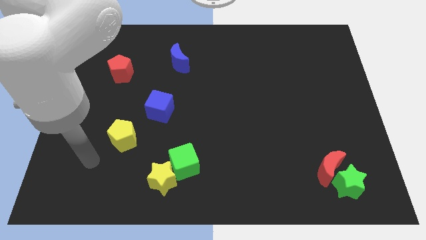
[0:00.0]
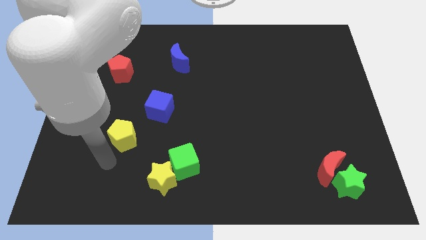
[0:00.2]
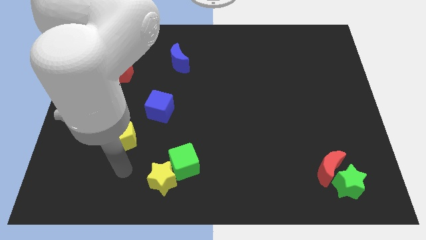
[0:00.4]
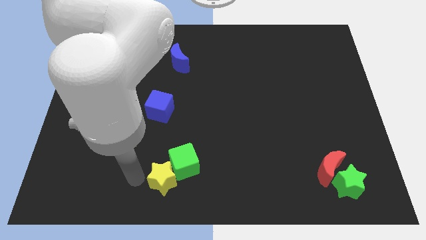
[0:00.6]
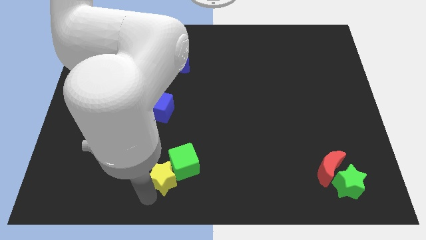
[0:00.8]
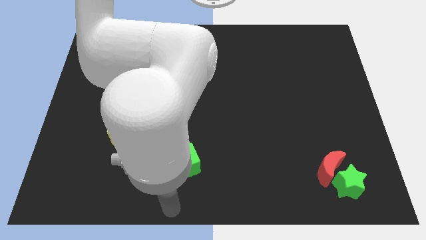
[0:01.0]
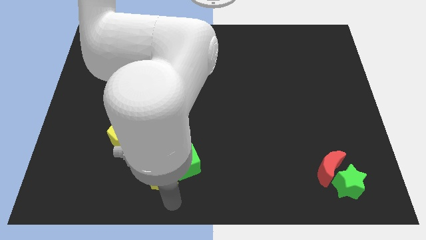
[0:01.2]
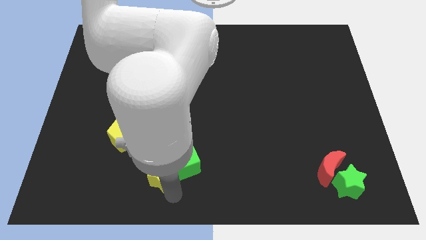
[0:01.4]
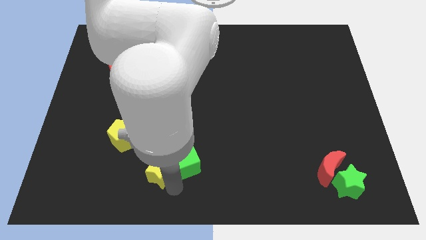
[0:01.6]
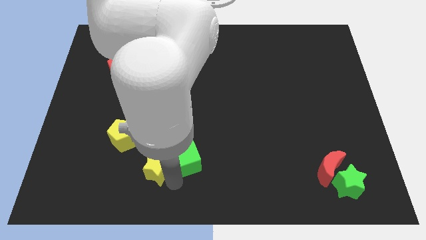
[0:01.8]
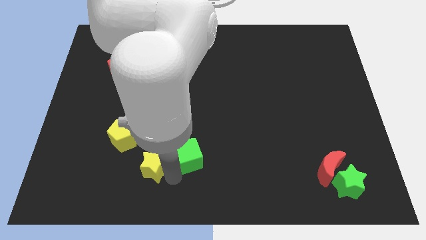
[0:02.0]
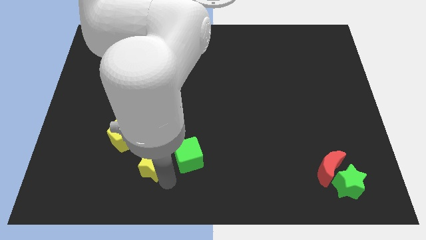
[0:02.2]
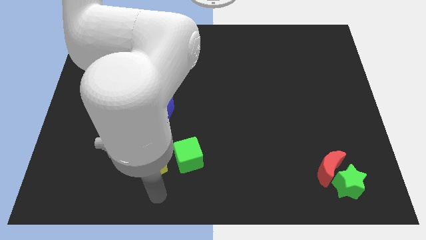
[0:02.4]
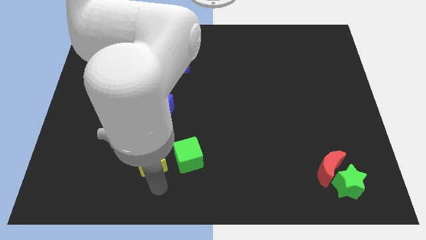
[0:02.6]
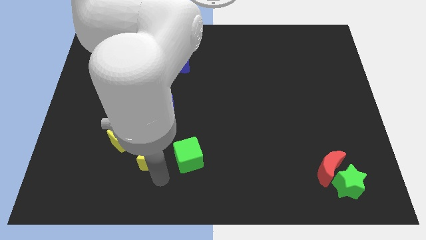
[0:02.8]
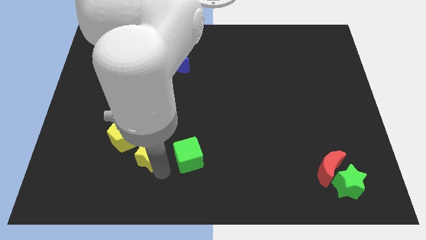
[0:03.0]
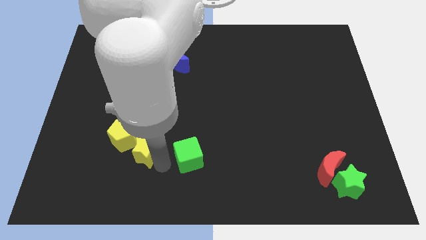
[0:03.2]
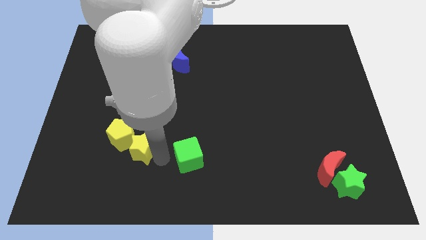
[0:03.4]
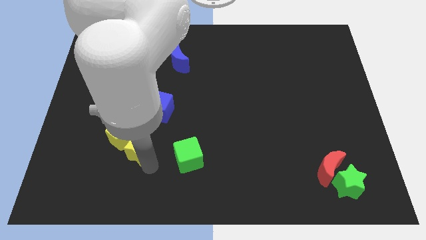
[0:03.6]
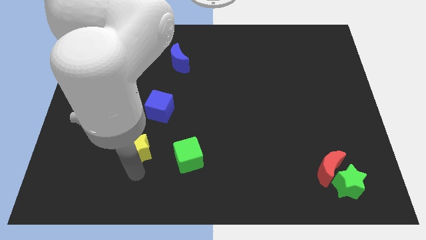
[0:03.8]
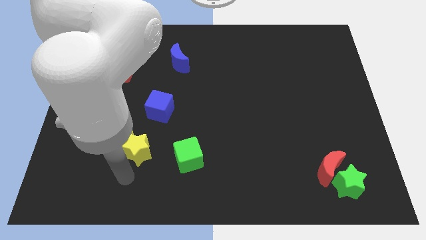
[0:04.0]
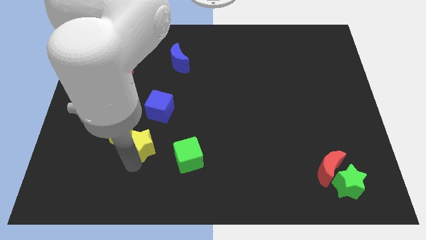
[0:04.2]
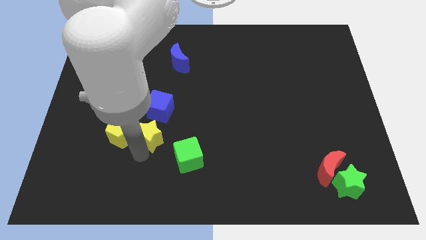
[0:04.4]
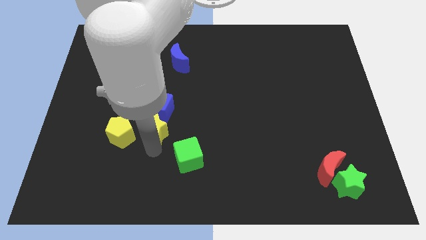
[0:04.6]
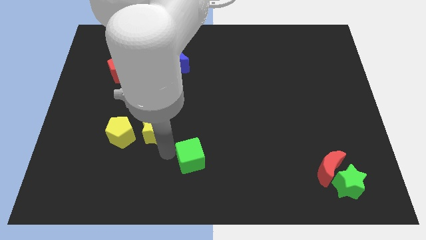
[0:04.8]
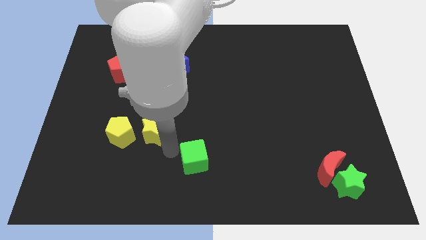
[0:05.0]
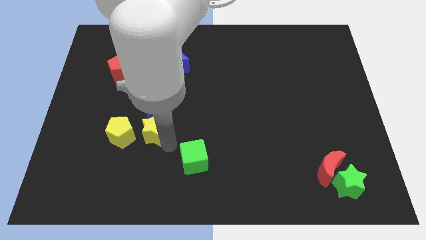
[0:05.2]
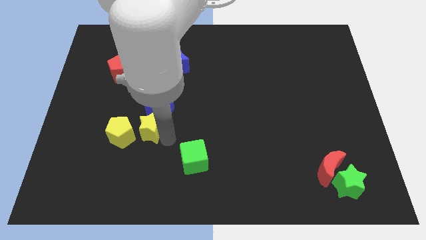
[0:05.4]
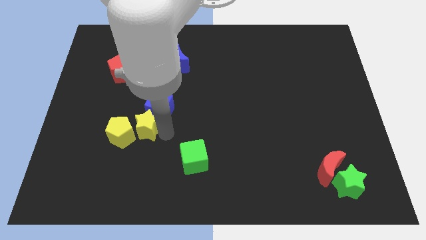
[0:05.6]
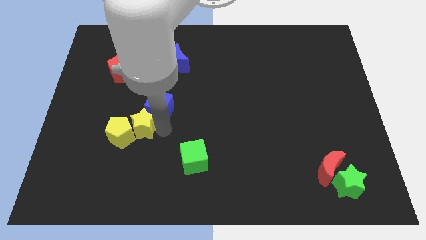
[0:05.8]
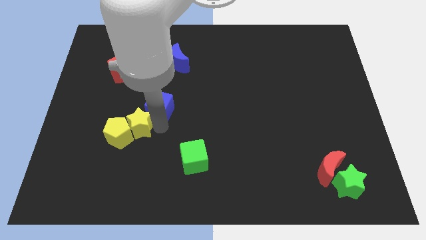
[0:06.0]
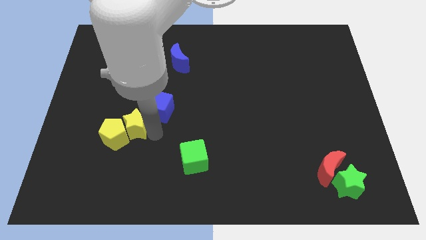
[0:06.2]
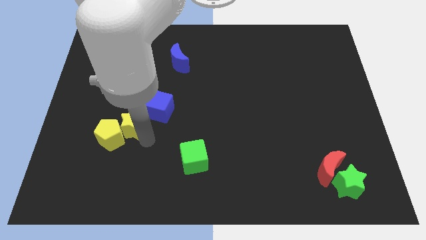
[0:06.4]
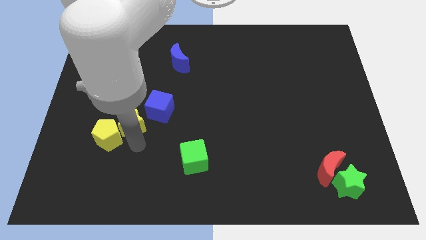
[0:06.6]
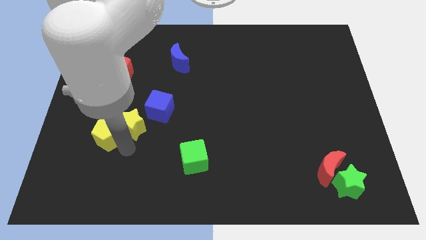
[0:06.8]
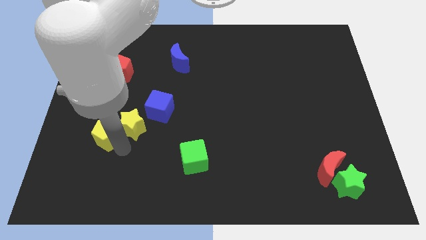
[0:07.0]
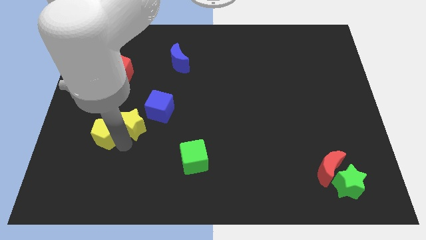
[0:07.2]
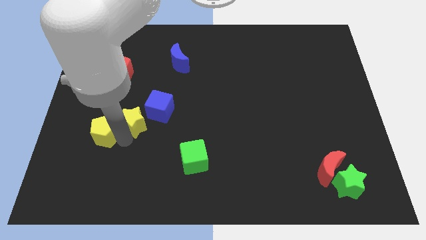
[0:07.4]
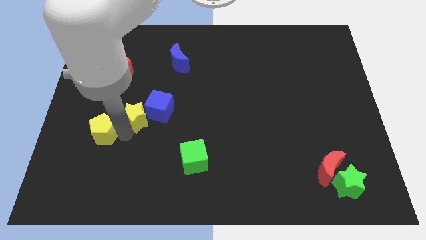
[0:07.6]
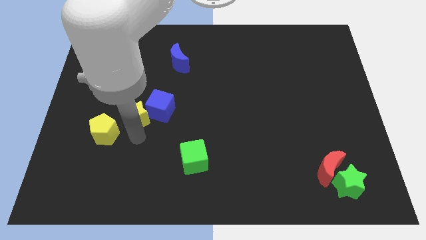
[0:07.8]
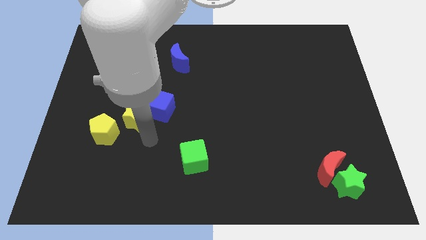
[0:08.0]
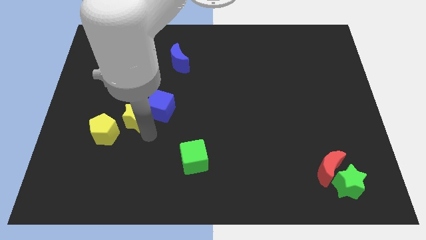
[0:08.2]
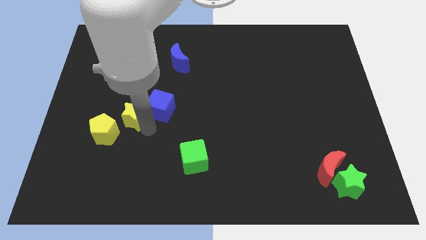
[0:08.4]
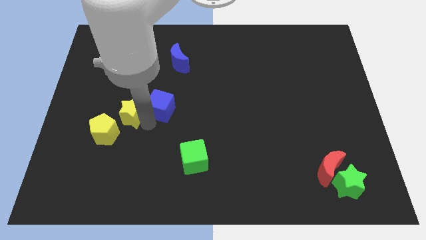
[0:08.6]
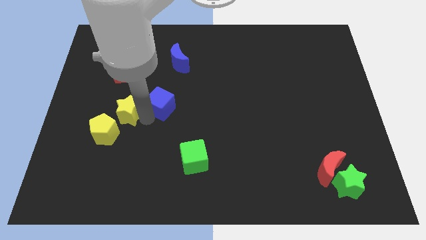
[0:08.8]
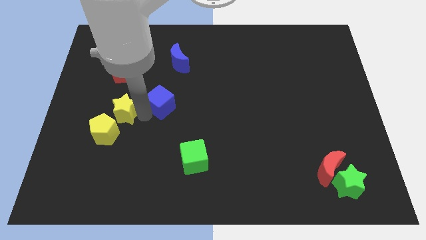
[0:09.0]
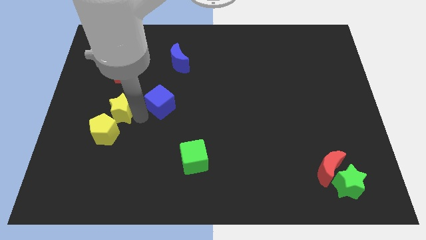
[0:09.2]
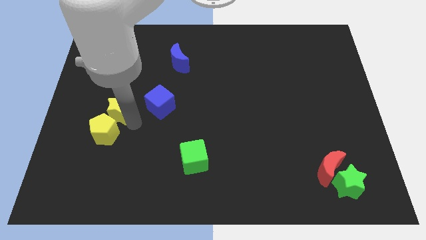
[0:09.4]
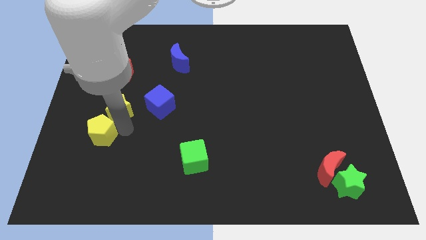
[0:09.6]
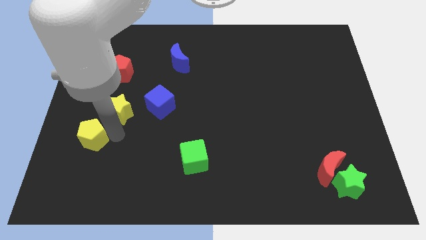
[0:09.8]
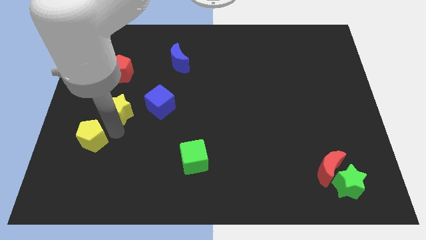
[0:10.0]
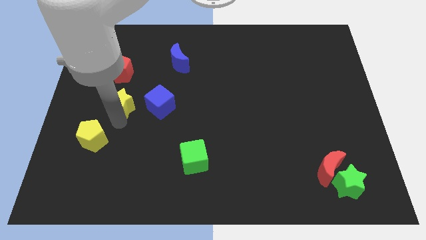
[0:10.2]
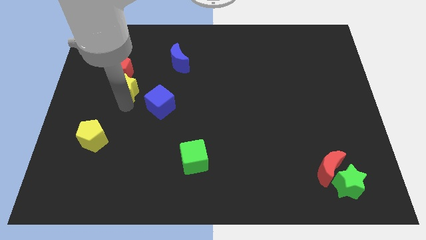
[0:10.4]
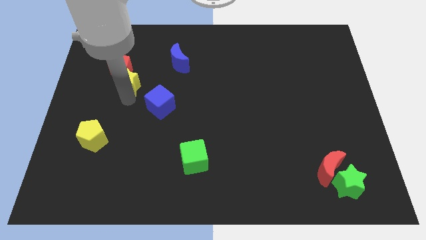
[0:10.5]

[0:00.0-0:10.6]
put the yellow star close to the red pentagon

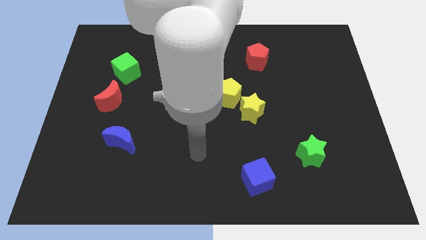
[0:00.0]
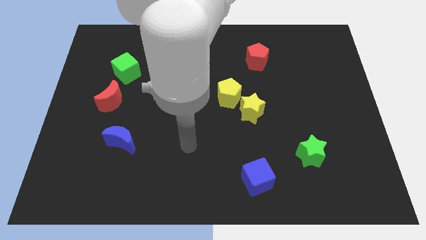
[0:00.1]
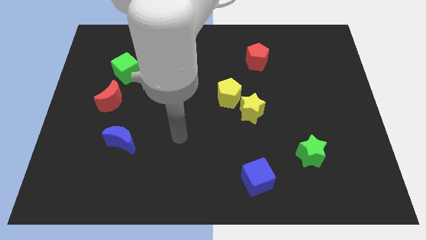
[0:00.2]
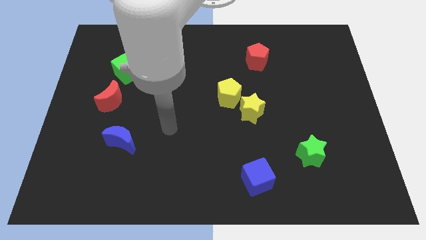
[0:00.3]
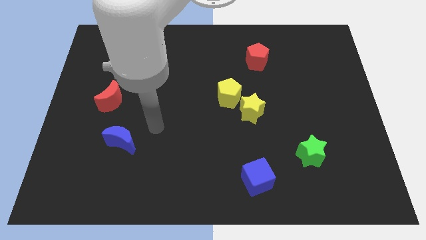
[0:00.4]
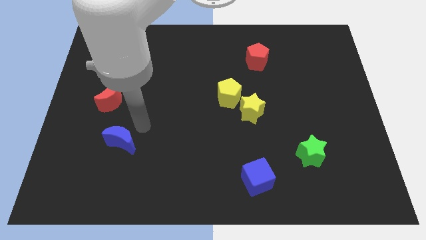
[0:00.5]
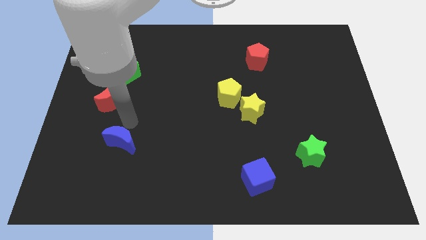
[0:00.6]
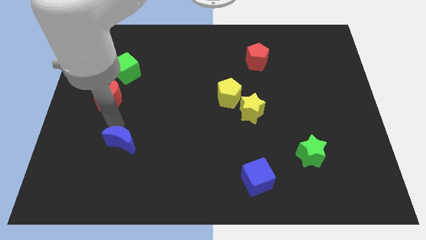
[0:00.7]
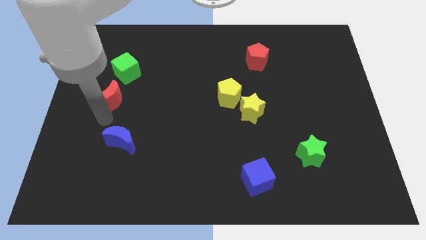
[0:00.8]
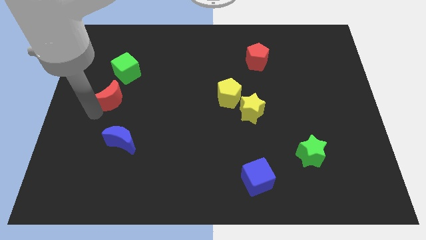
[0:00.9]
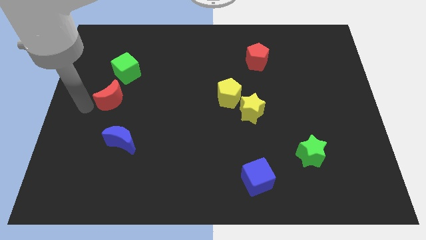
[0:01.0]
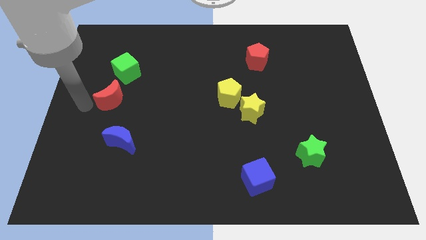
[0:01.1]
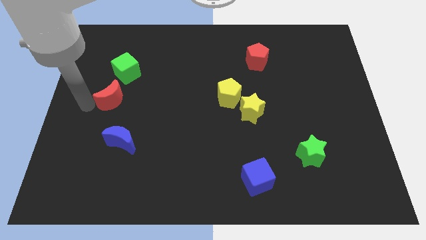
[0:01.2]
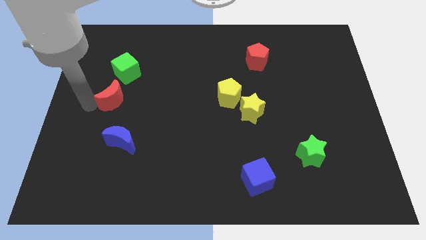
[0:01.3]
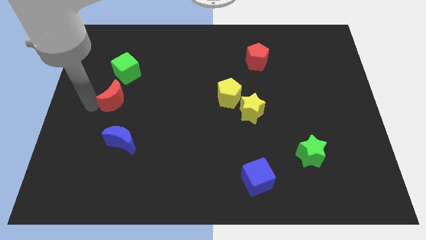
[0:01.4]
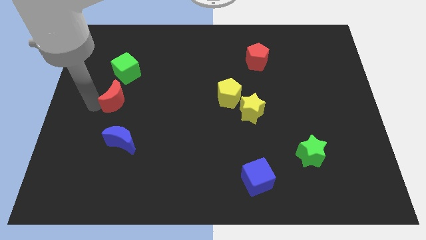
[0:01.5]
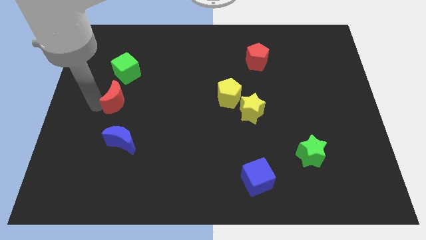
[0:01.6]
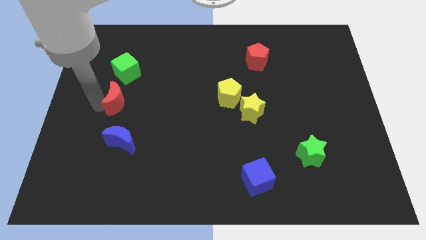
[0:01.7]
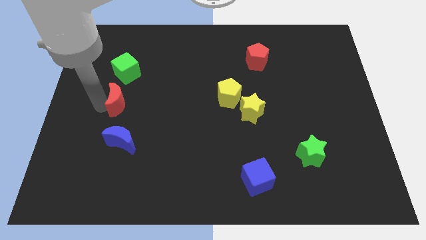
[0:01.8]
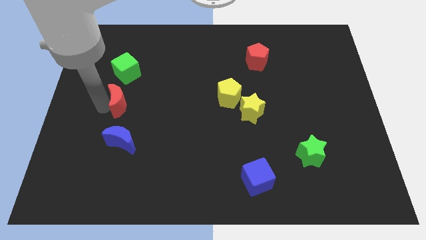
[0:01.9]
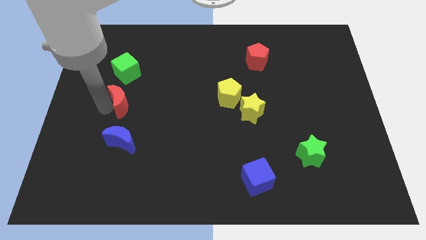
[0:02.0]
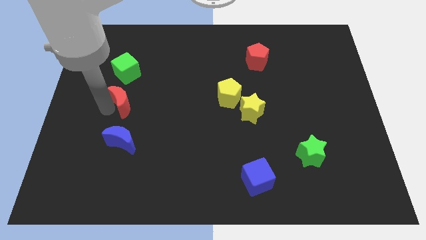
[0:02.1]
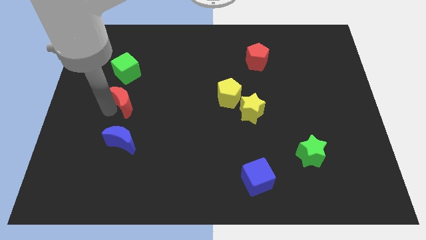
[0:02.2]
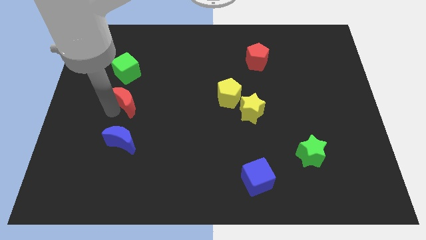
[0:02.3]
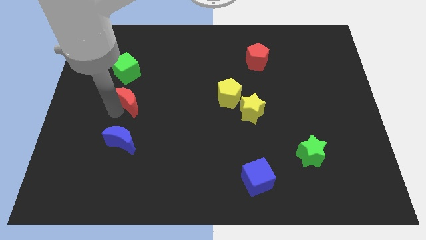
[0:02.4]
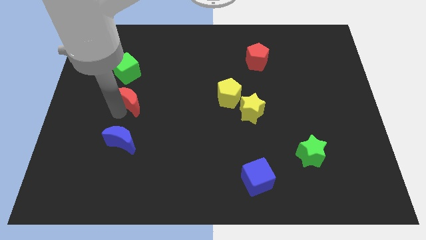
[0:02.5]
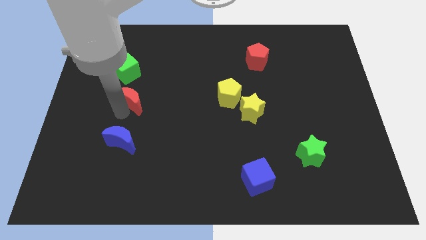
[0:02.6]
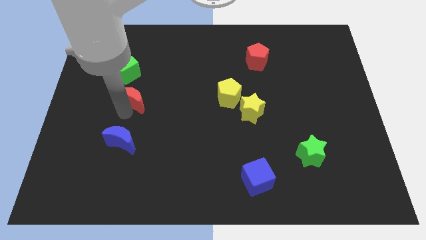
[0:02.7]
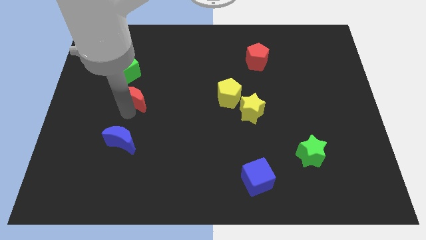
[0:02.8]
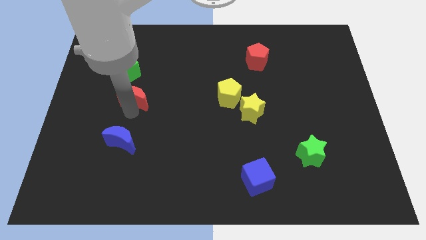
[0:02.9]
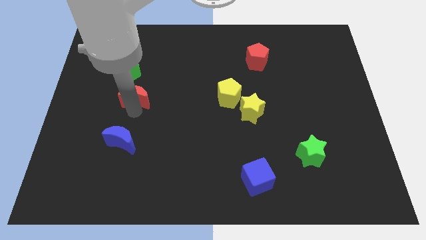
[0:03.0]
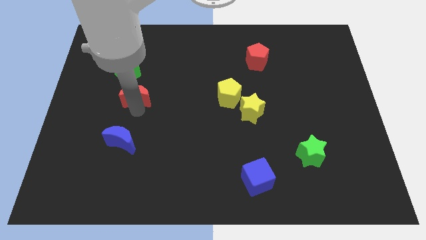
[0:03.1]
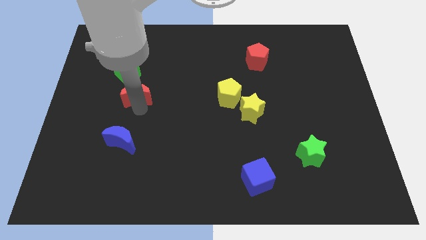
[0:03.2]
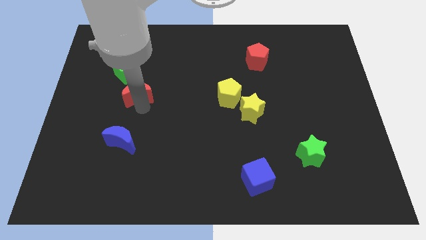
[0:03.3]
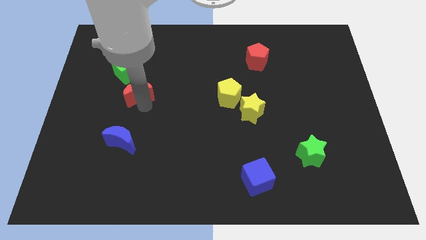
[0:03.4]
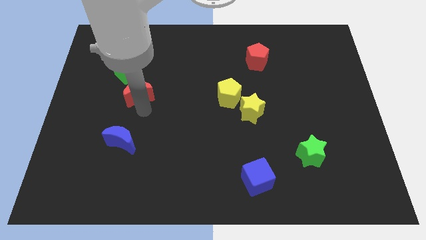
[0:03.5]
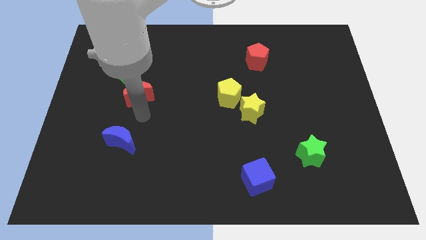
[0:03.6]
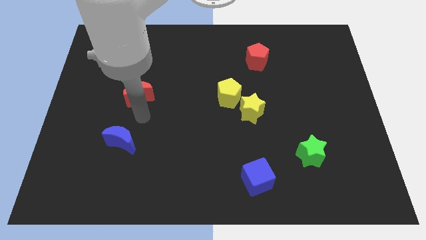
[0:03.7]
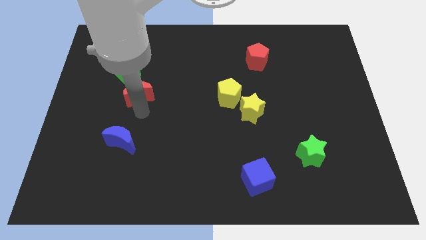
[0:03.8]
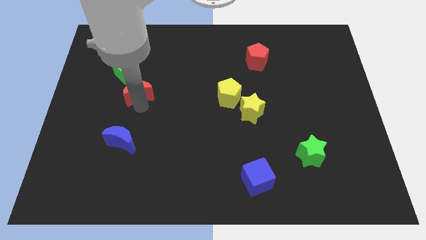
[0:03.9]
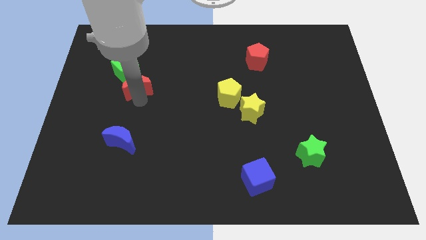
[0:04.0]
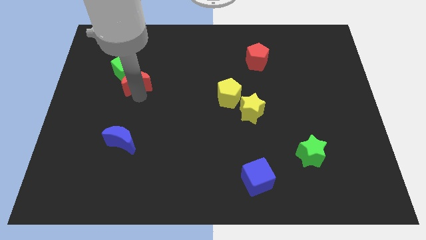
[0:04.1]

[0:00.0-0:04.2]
slide the red moon to the green cube
